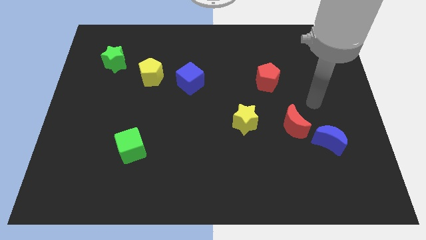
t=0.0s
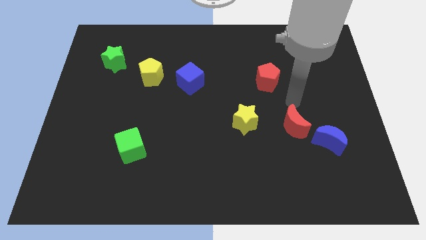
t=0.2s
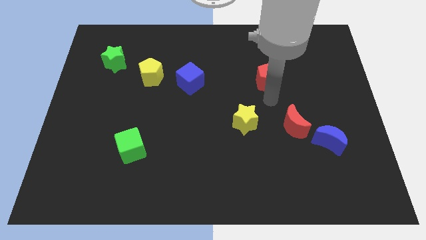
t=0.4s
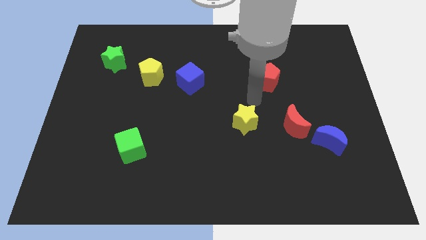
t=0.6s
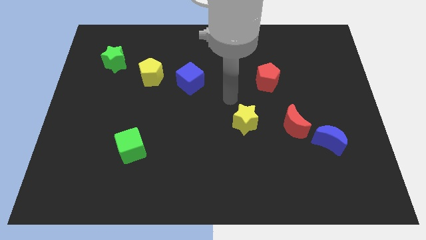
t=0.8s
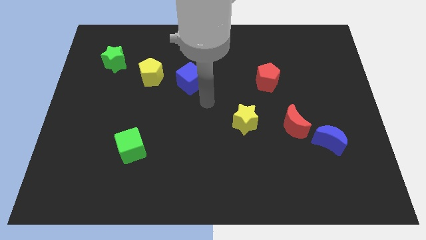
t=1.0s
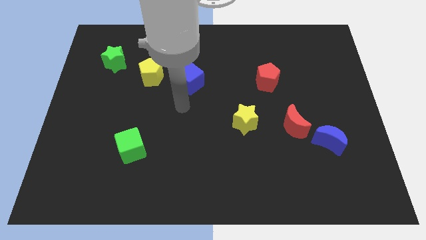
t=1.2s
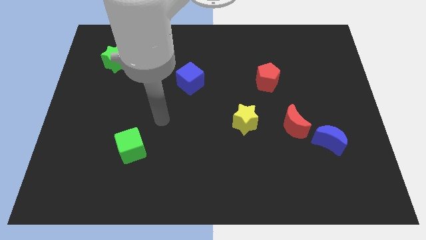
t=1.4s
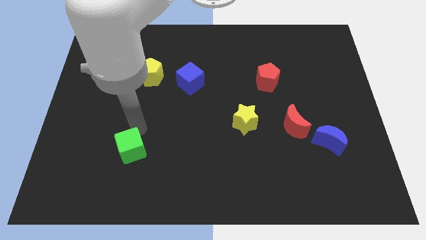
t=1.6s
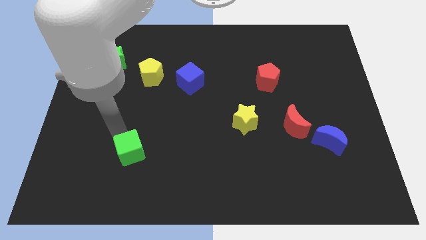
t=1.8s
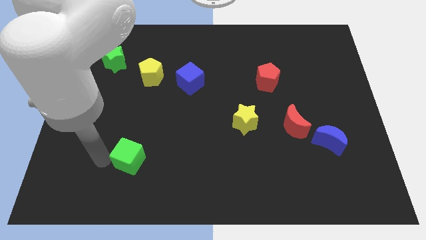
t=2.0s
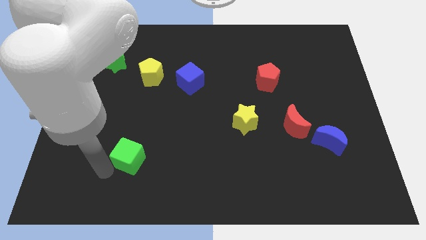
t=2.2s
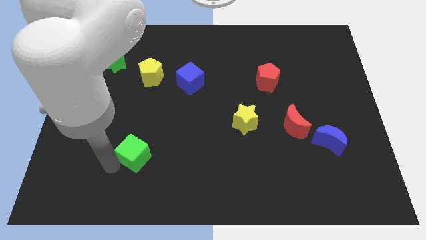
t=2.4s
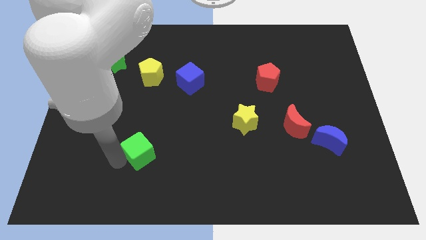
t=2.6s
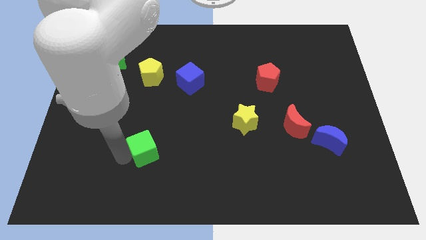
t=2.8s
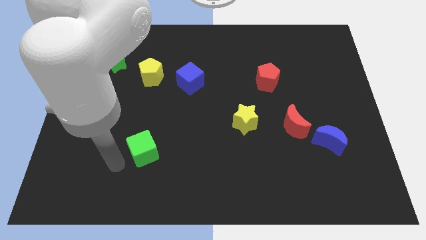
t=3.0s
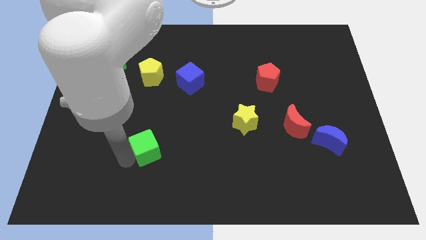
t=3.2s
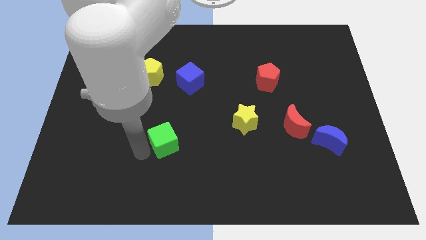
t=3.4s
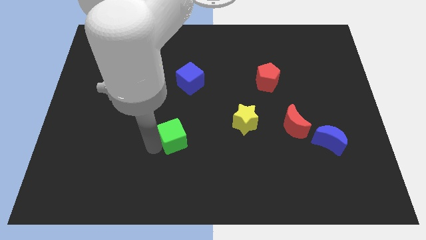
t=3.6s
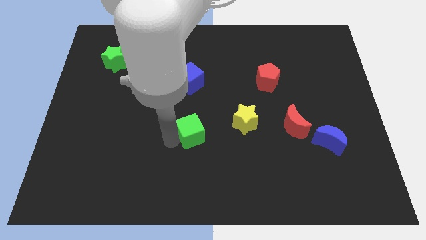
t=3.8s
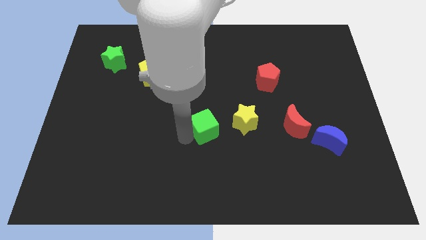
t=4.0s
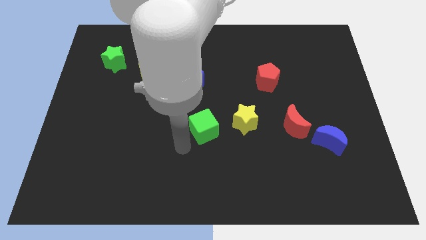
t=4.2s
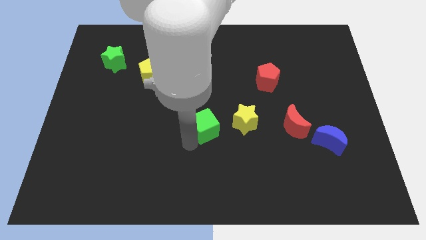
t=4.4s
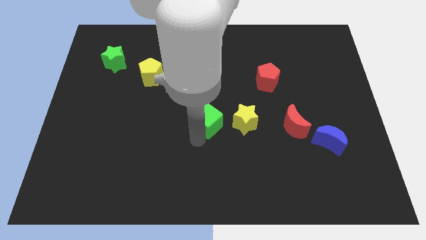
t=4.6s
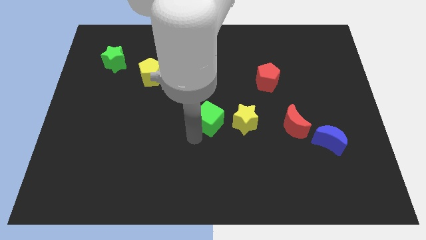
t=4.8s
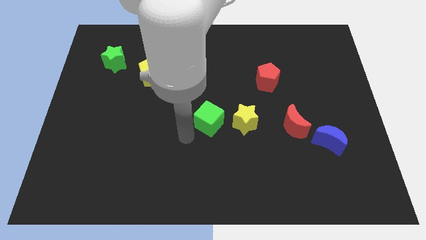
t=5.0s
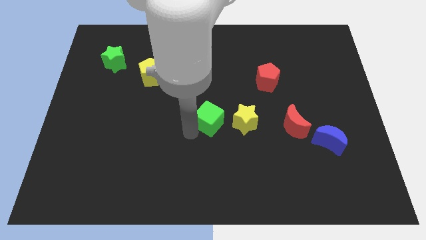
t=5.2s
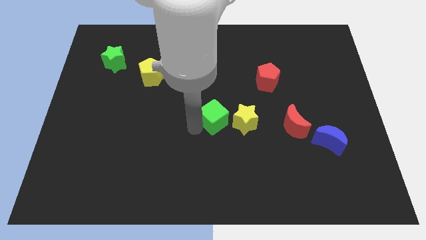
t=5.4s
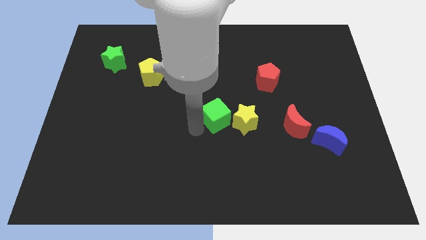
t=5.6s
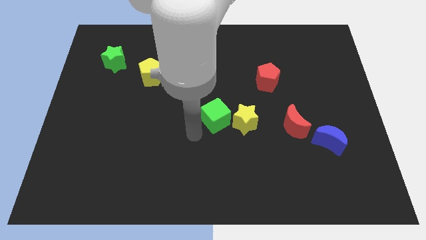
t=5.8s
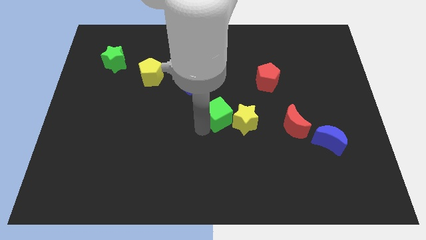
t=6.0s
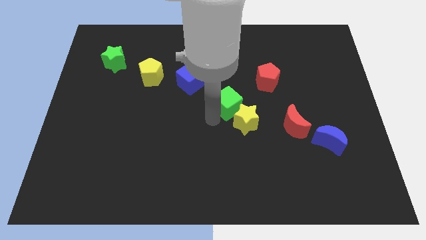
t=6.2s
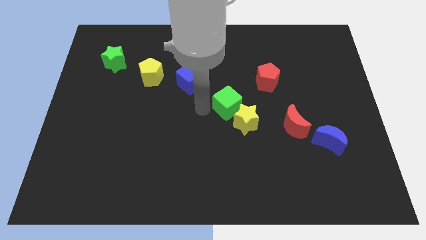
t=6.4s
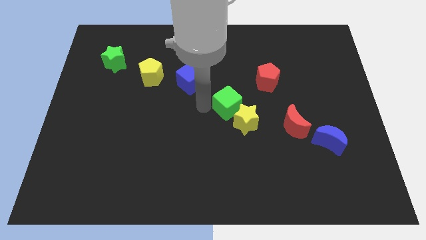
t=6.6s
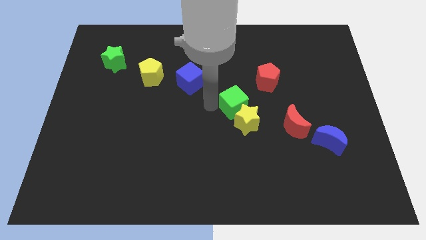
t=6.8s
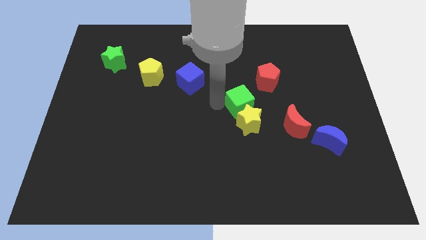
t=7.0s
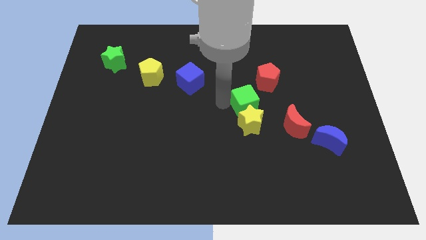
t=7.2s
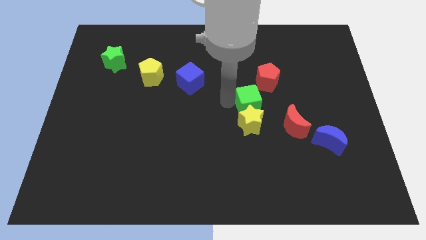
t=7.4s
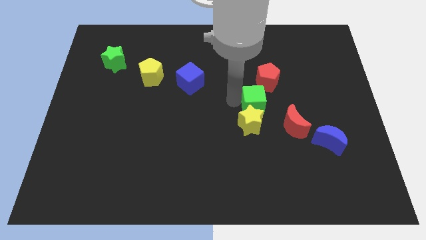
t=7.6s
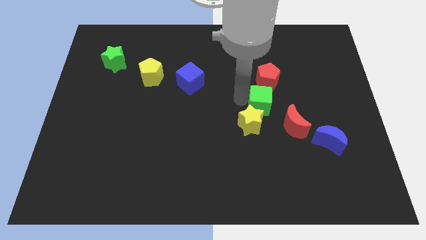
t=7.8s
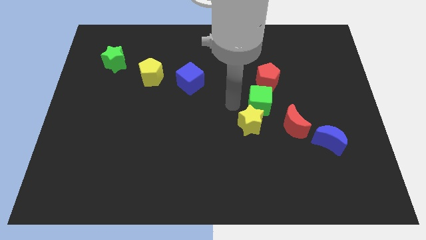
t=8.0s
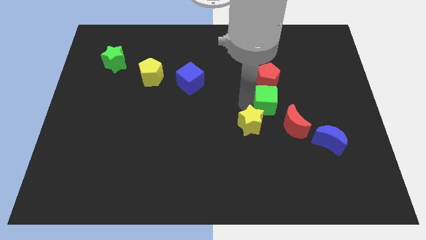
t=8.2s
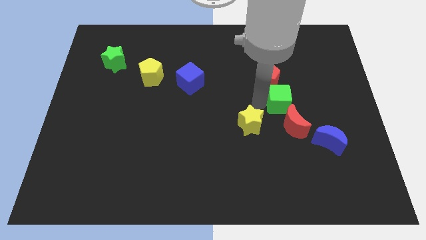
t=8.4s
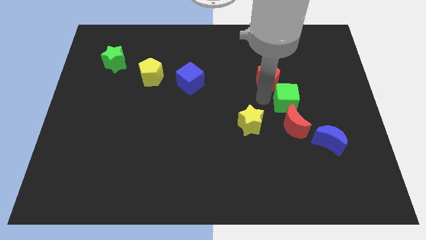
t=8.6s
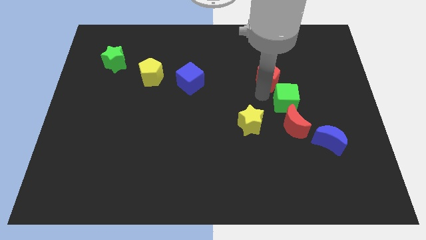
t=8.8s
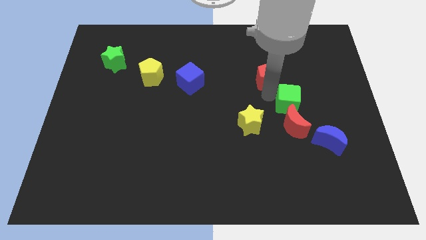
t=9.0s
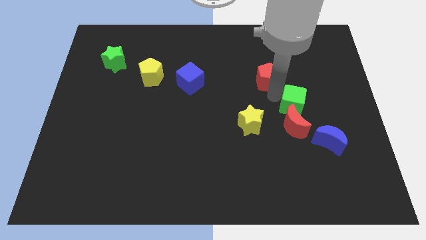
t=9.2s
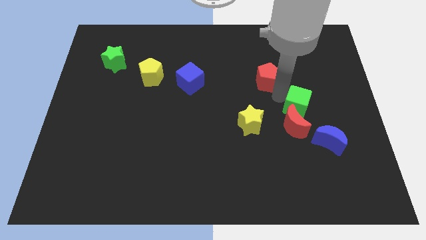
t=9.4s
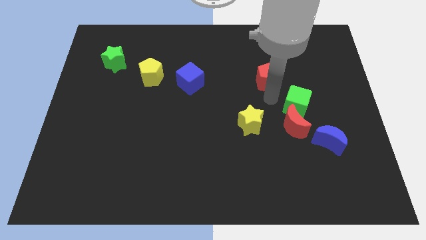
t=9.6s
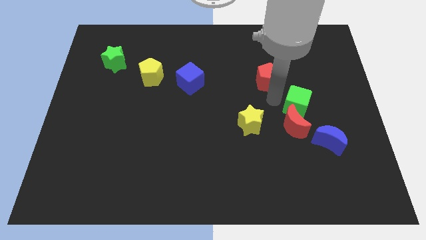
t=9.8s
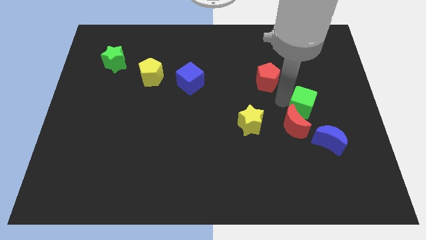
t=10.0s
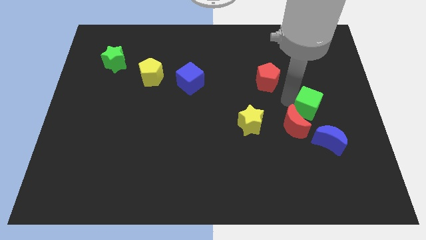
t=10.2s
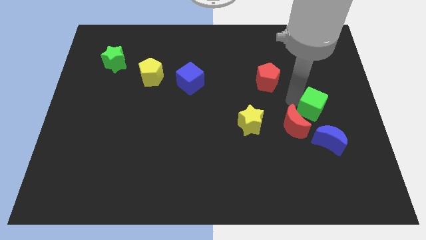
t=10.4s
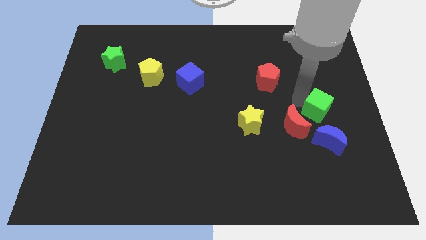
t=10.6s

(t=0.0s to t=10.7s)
push the green cube to the right side of the red moon

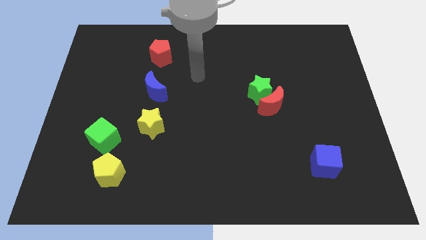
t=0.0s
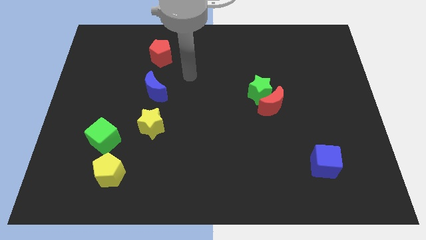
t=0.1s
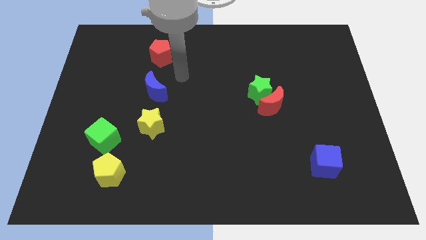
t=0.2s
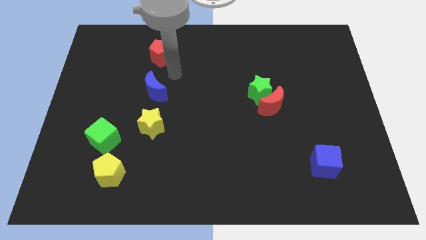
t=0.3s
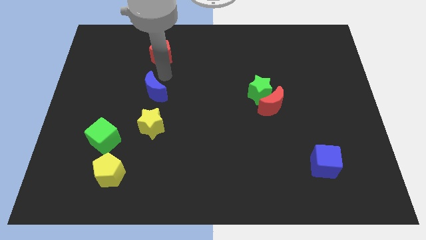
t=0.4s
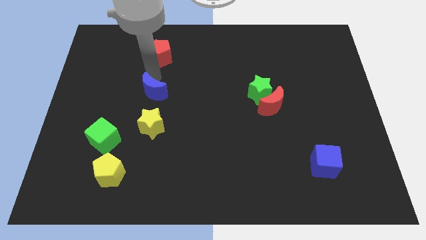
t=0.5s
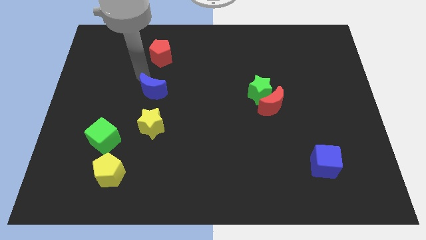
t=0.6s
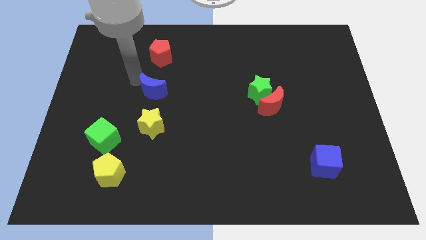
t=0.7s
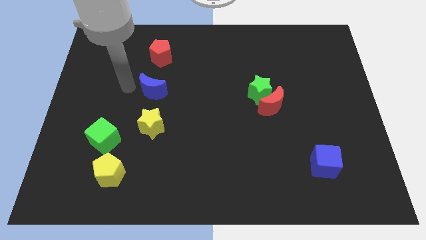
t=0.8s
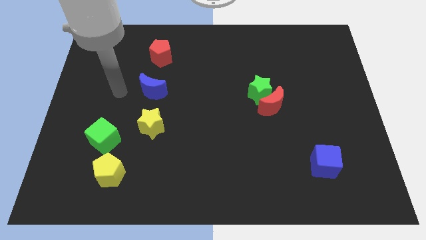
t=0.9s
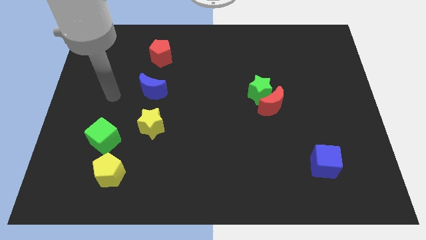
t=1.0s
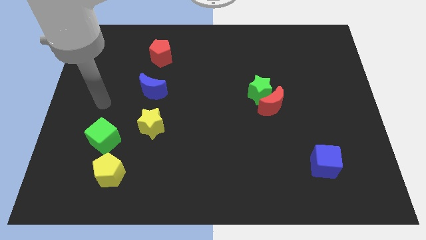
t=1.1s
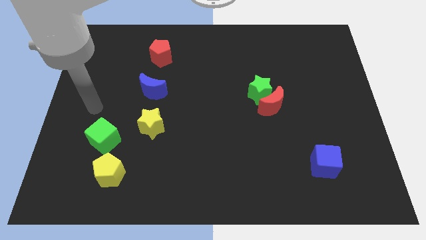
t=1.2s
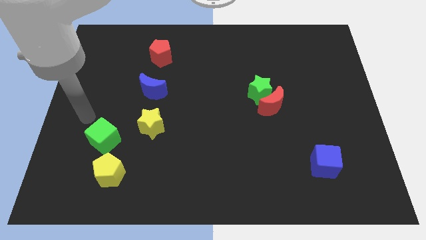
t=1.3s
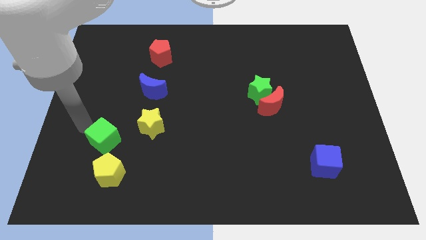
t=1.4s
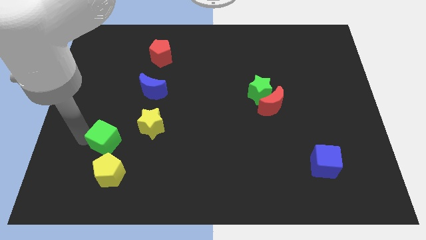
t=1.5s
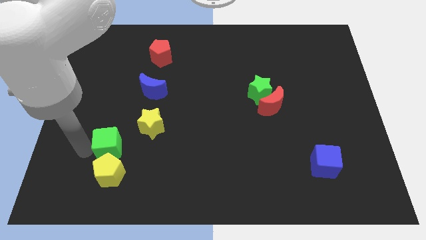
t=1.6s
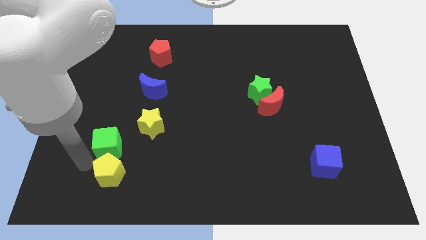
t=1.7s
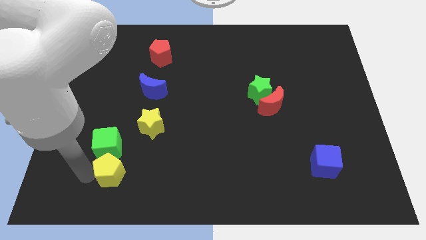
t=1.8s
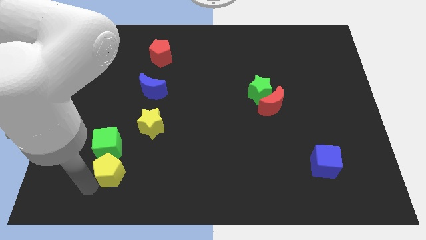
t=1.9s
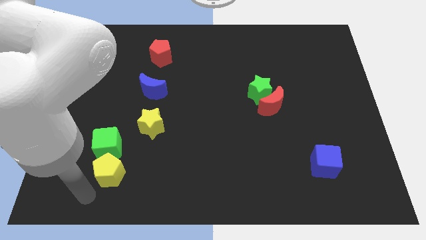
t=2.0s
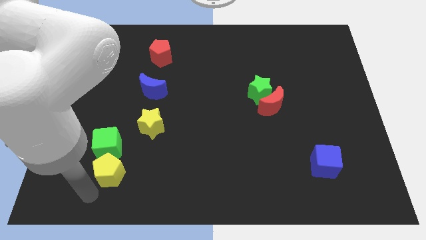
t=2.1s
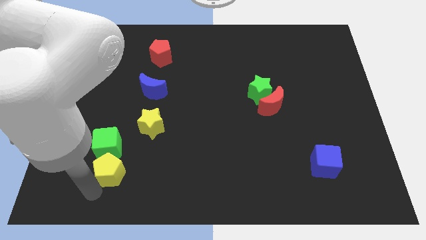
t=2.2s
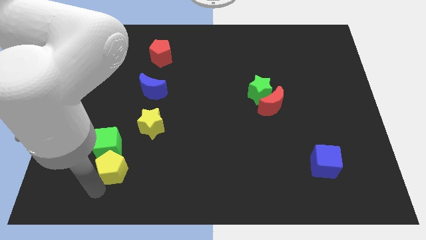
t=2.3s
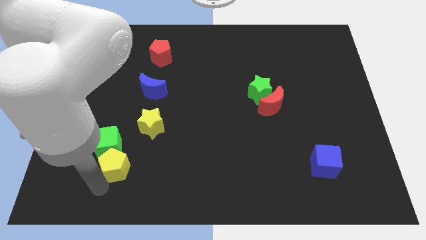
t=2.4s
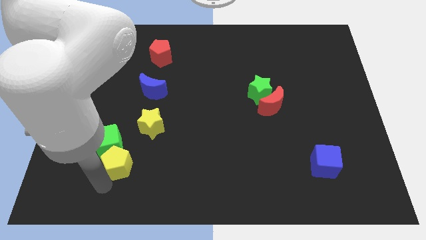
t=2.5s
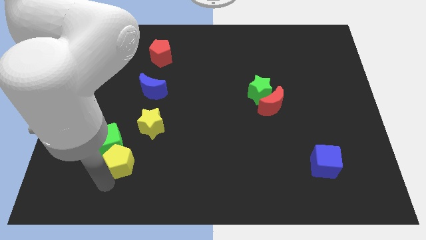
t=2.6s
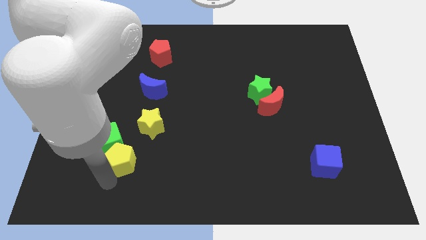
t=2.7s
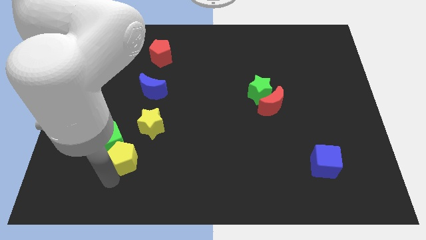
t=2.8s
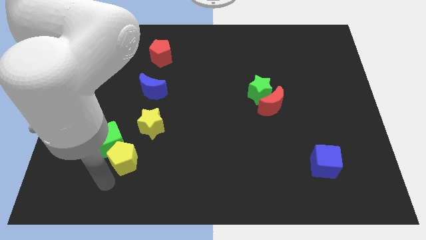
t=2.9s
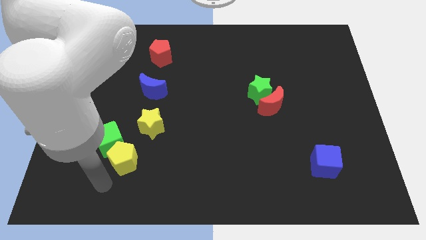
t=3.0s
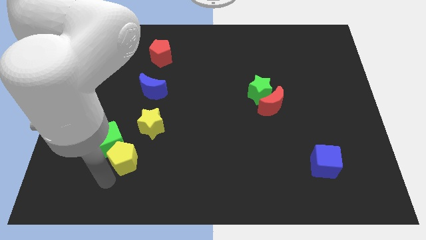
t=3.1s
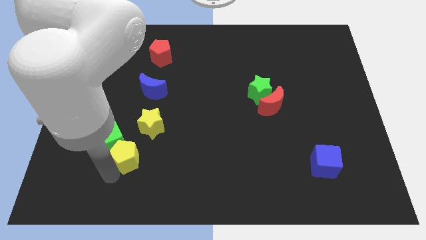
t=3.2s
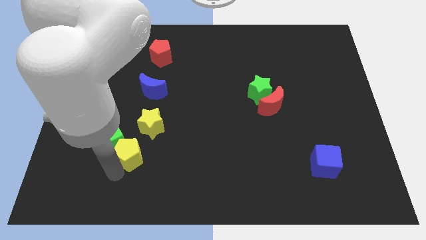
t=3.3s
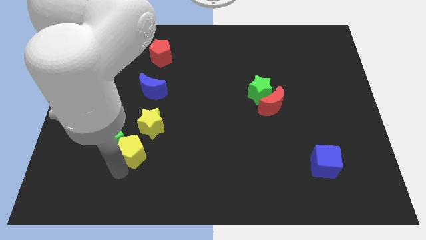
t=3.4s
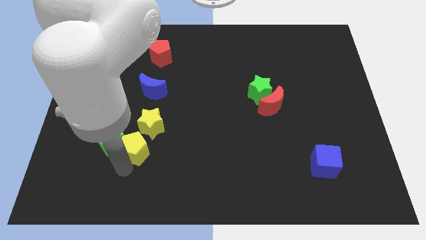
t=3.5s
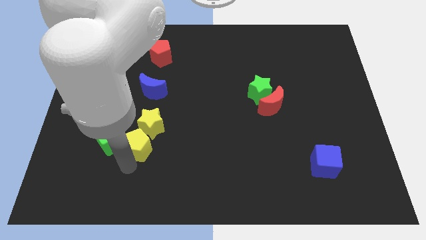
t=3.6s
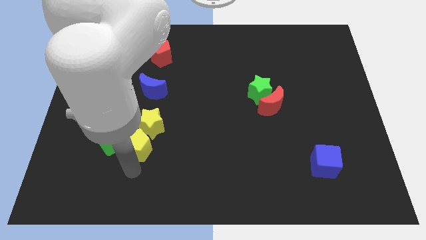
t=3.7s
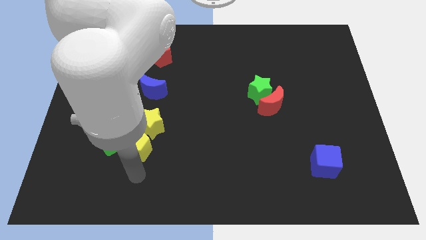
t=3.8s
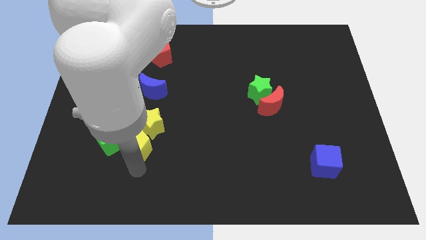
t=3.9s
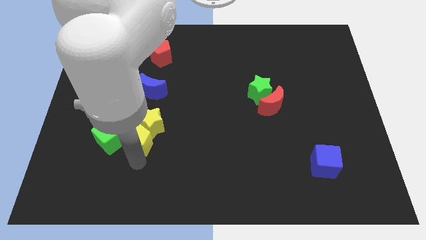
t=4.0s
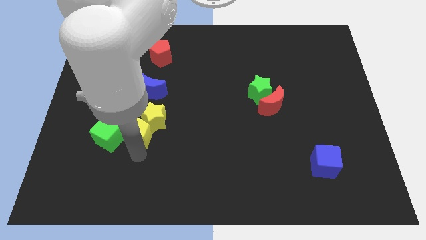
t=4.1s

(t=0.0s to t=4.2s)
push the yellow pentagon diagonally up and to the right of the green cube
